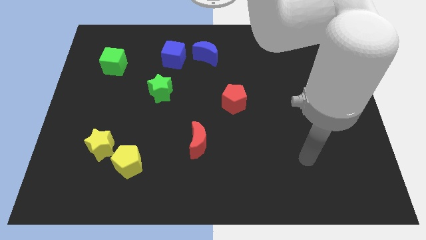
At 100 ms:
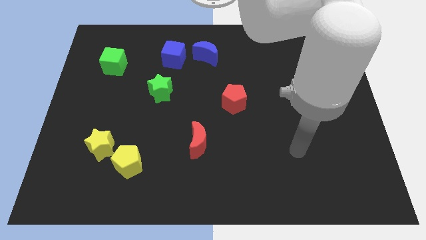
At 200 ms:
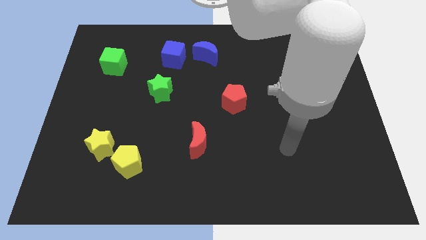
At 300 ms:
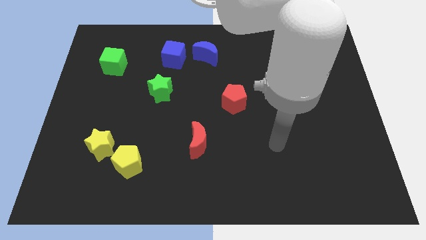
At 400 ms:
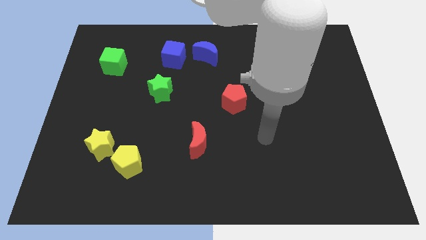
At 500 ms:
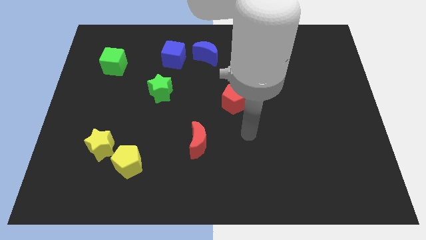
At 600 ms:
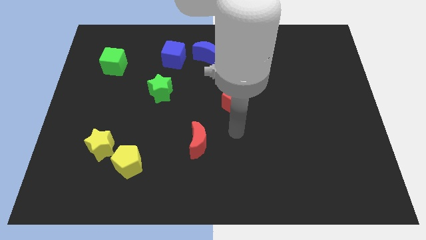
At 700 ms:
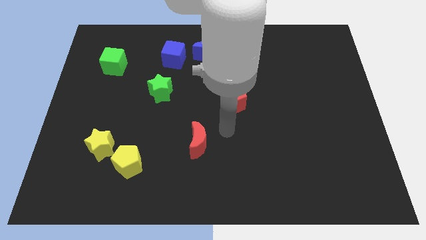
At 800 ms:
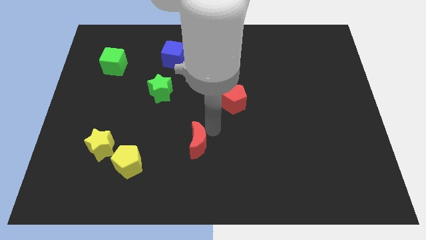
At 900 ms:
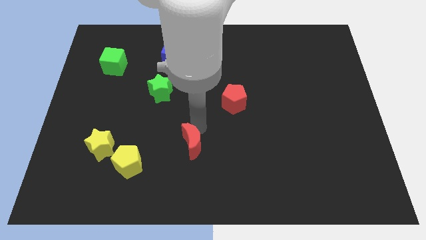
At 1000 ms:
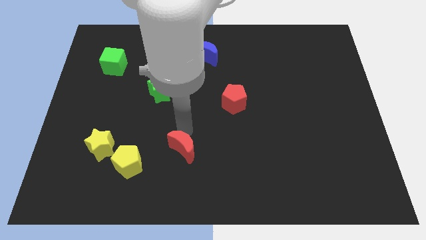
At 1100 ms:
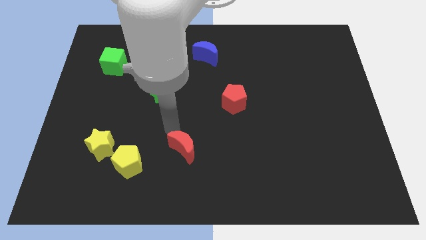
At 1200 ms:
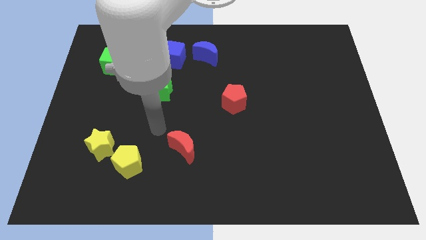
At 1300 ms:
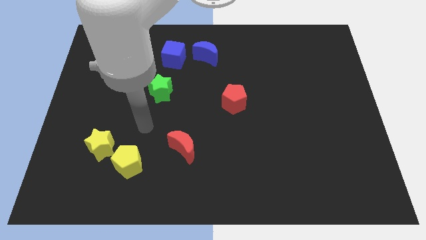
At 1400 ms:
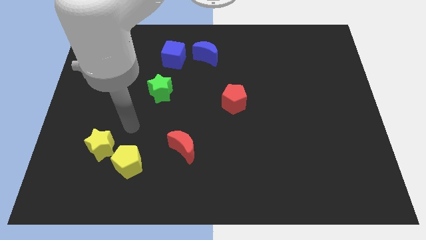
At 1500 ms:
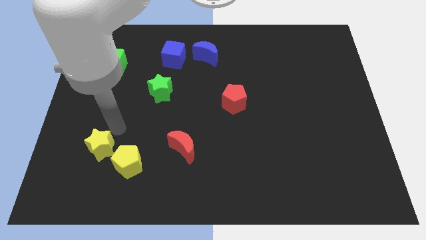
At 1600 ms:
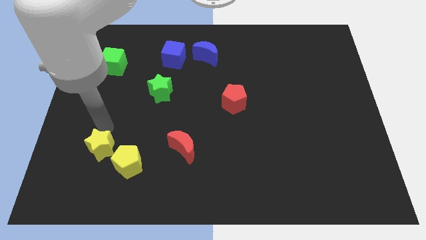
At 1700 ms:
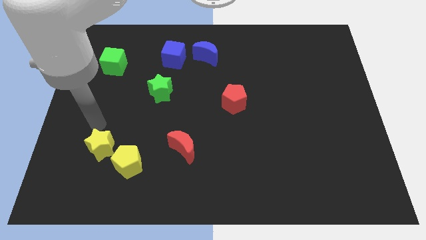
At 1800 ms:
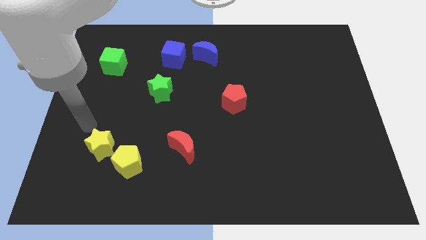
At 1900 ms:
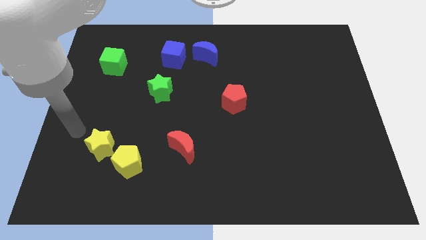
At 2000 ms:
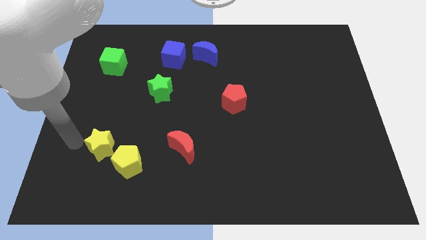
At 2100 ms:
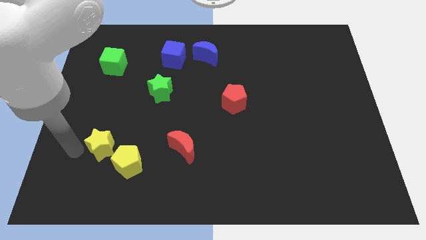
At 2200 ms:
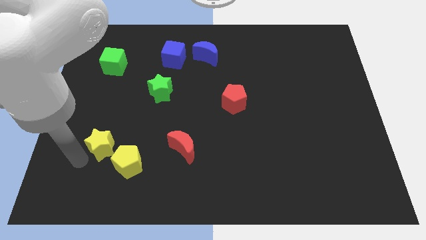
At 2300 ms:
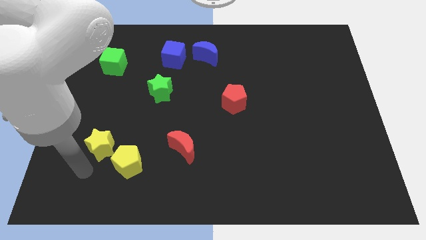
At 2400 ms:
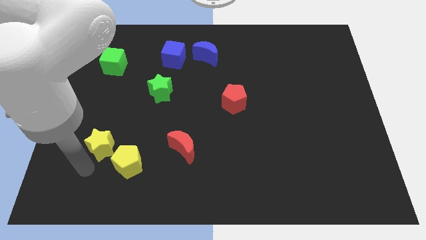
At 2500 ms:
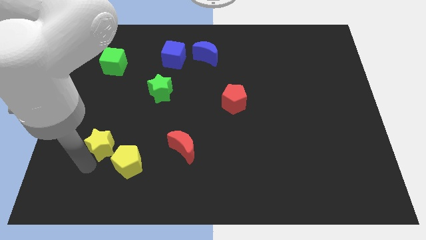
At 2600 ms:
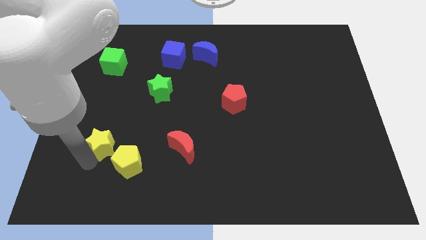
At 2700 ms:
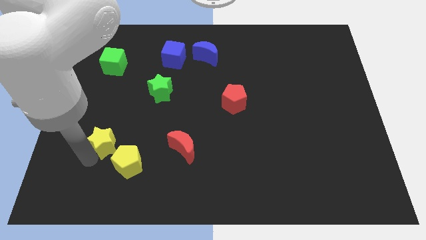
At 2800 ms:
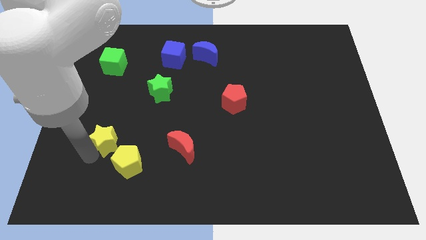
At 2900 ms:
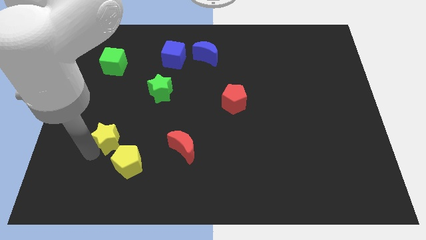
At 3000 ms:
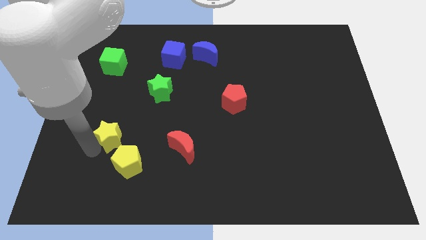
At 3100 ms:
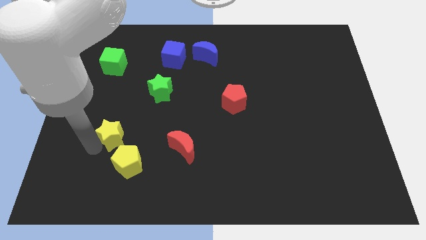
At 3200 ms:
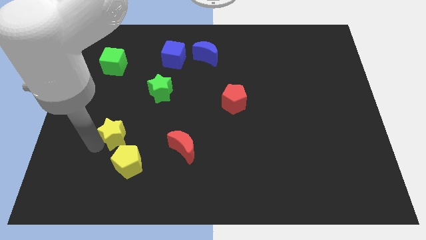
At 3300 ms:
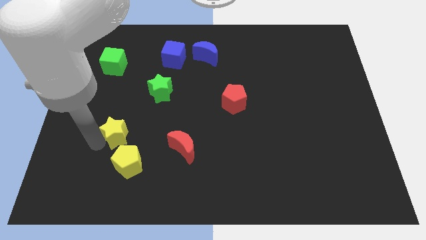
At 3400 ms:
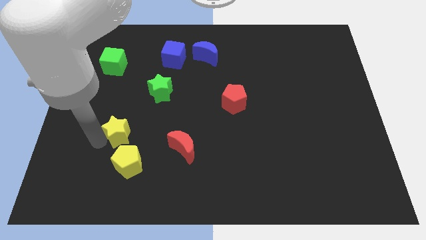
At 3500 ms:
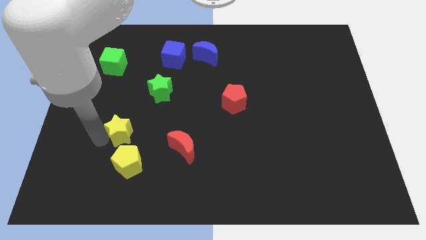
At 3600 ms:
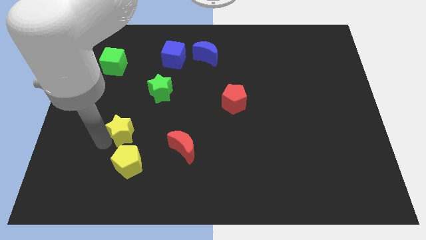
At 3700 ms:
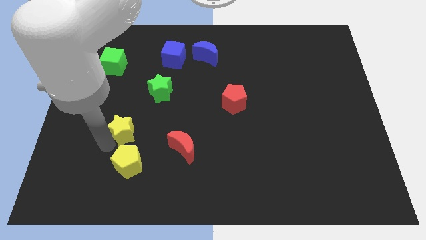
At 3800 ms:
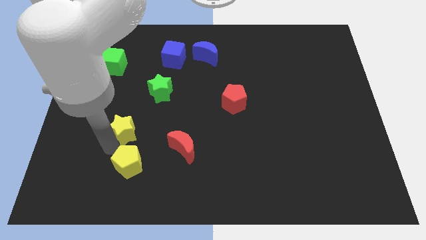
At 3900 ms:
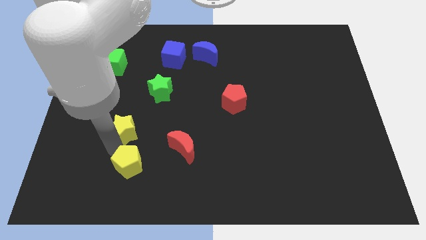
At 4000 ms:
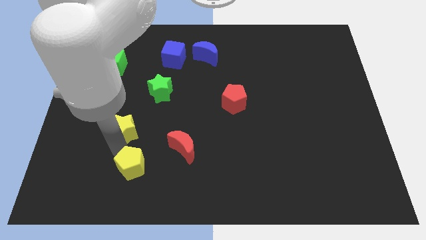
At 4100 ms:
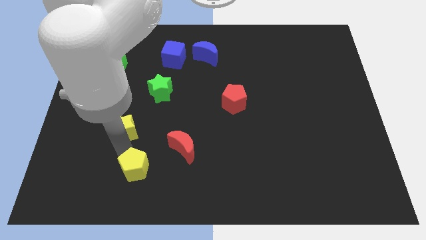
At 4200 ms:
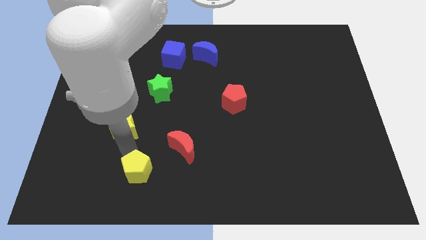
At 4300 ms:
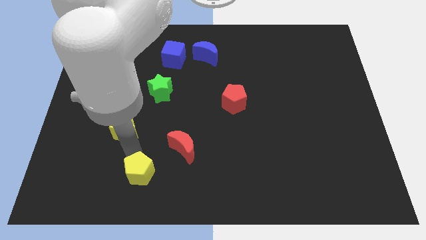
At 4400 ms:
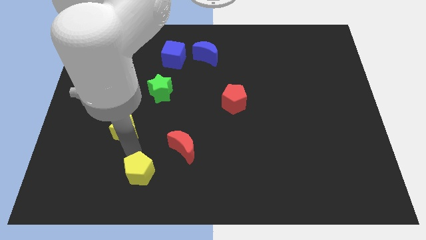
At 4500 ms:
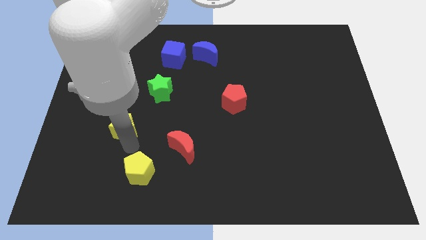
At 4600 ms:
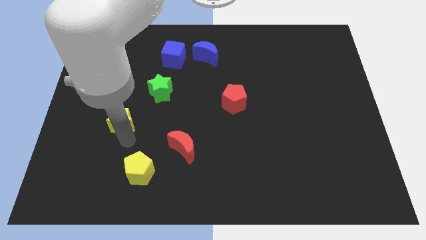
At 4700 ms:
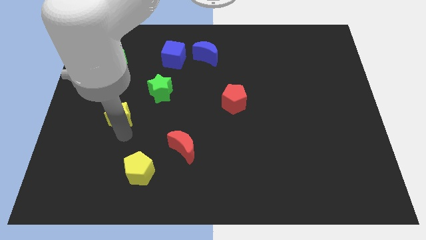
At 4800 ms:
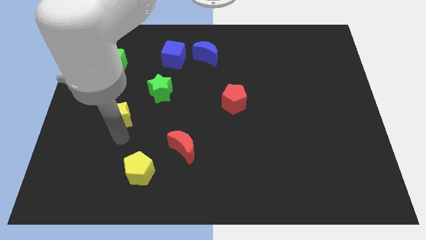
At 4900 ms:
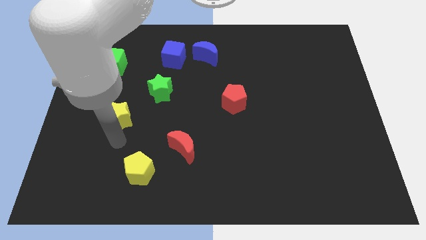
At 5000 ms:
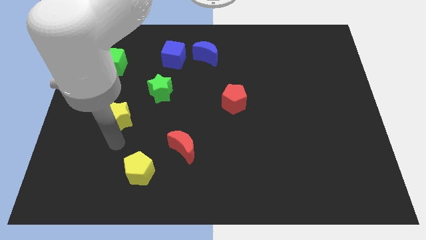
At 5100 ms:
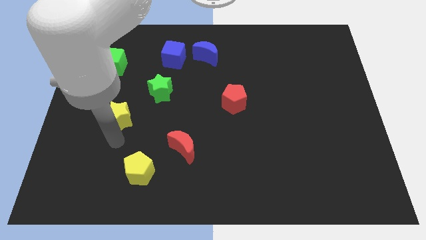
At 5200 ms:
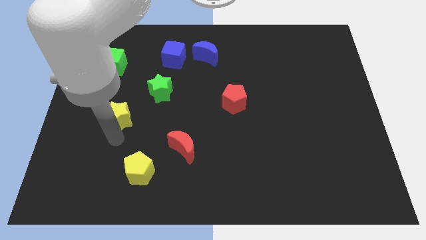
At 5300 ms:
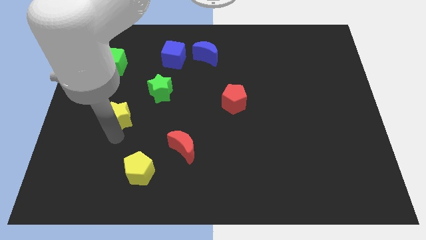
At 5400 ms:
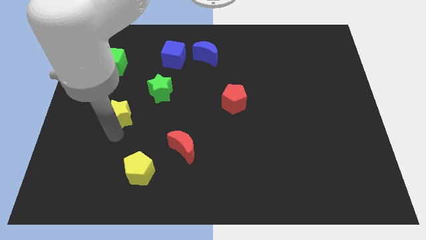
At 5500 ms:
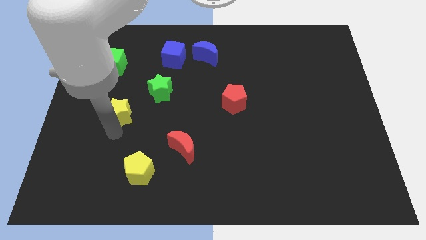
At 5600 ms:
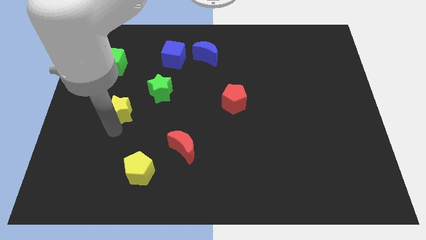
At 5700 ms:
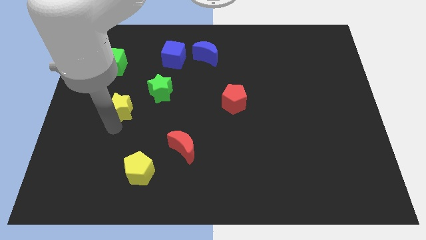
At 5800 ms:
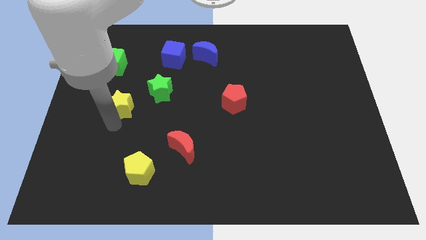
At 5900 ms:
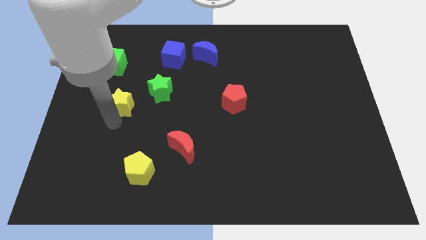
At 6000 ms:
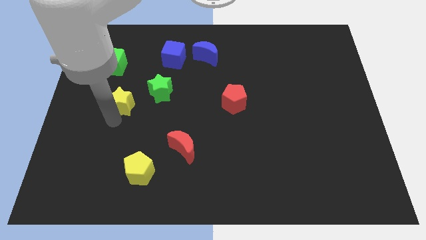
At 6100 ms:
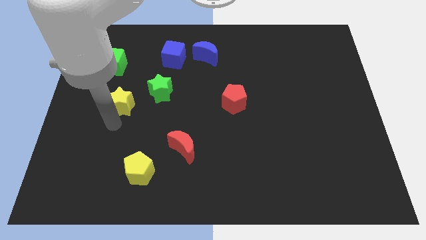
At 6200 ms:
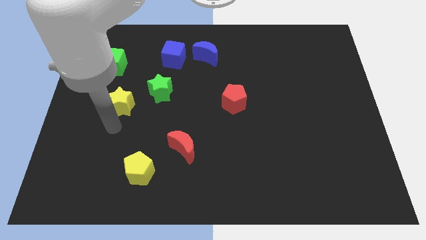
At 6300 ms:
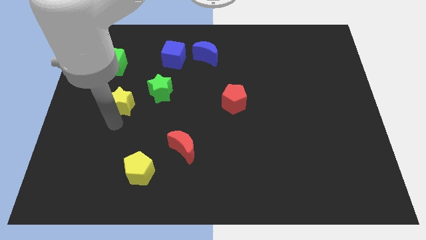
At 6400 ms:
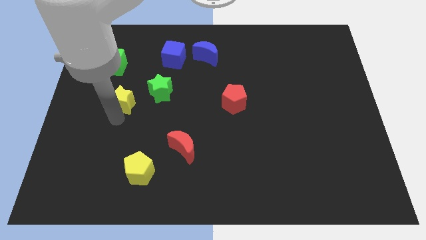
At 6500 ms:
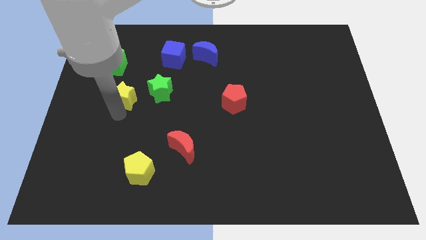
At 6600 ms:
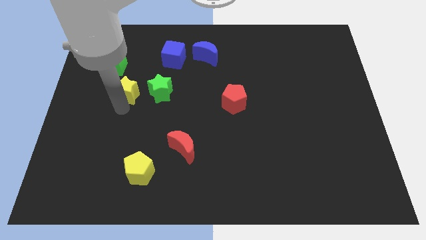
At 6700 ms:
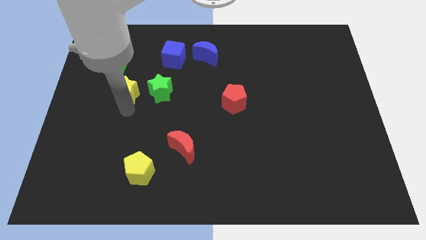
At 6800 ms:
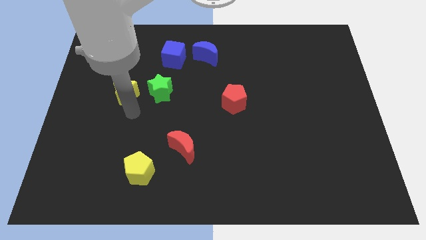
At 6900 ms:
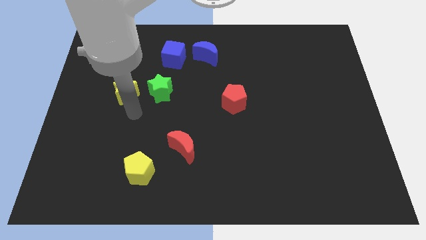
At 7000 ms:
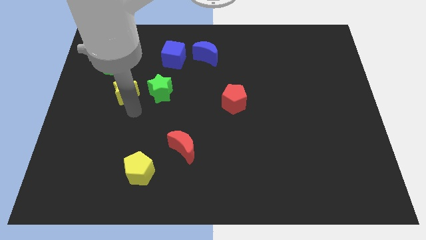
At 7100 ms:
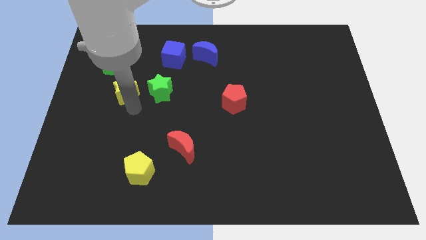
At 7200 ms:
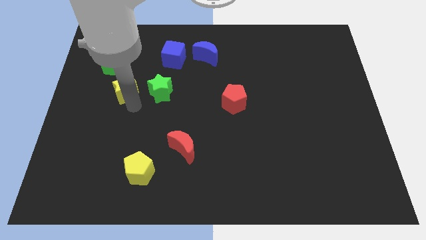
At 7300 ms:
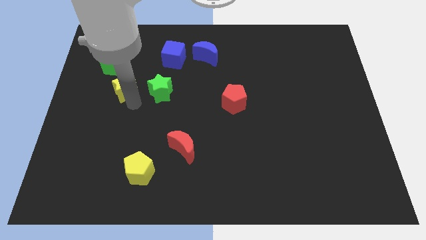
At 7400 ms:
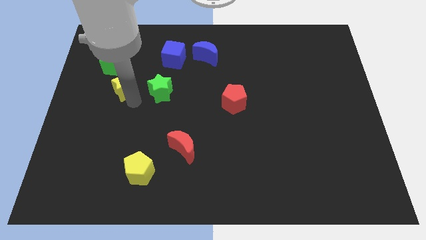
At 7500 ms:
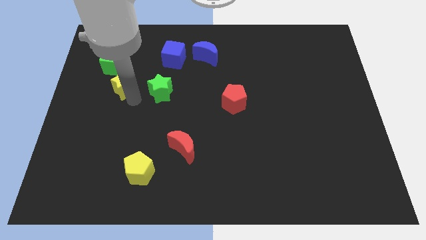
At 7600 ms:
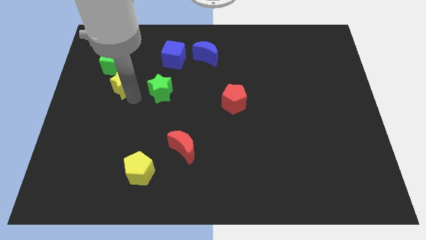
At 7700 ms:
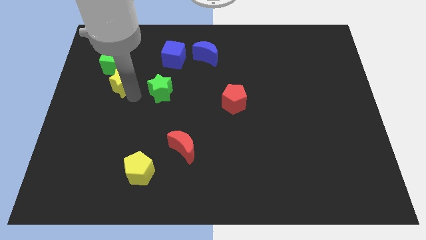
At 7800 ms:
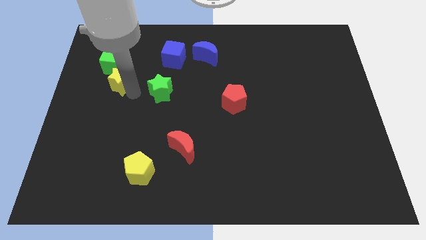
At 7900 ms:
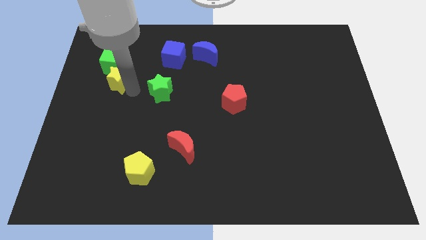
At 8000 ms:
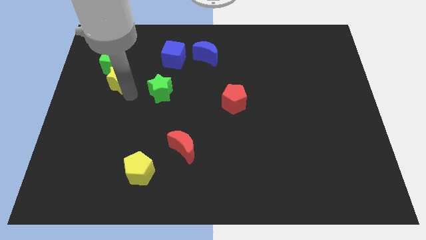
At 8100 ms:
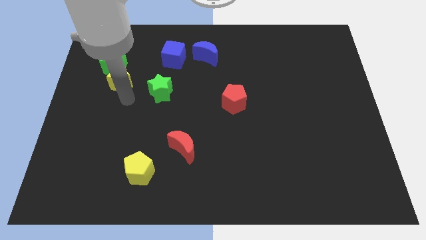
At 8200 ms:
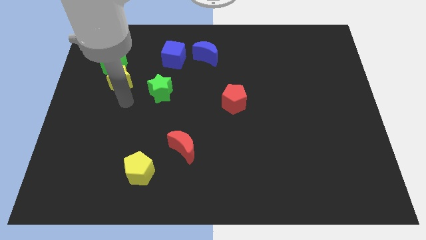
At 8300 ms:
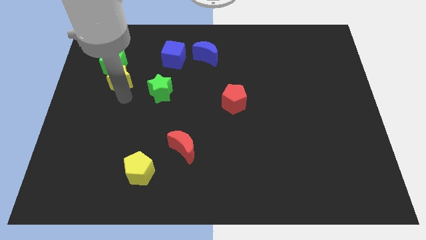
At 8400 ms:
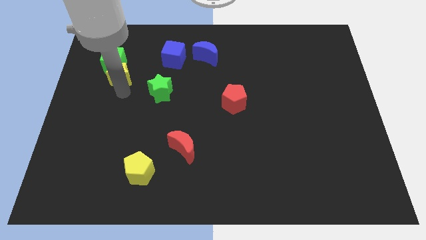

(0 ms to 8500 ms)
slide the yellow star to the green cube
